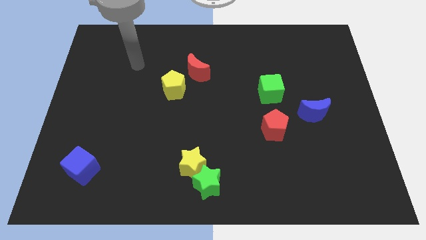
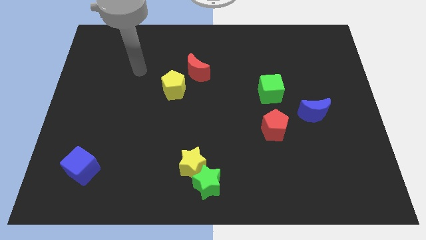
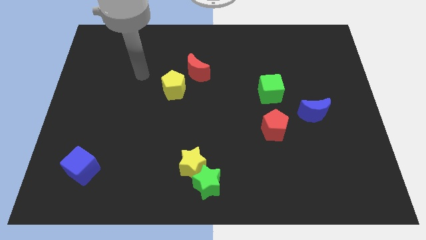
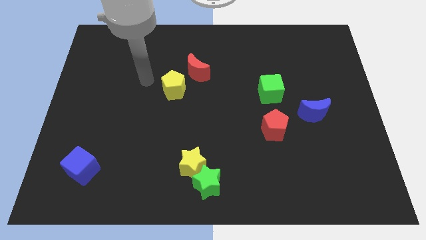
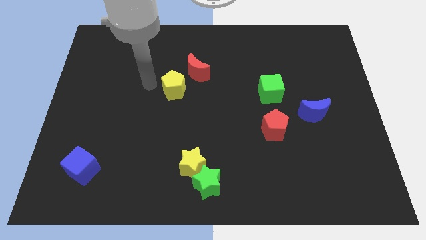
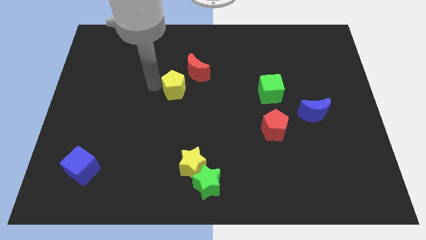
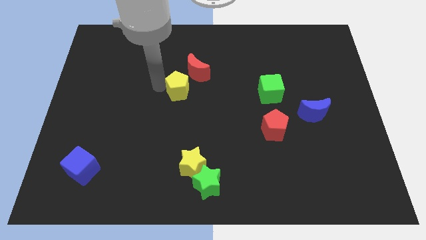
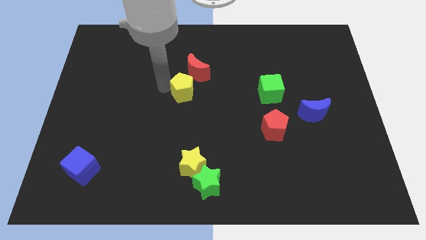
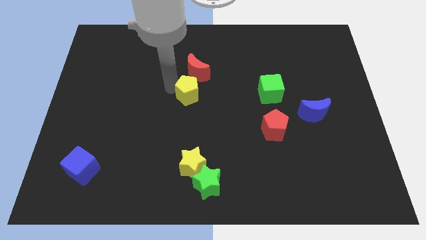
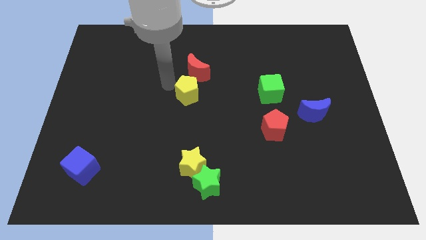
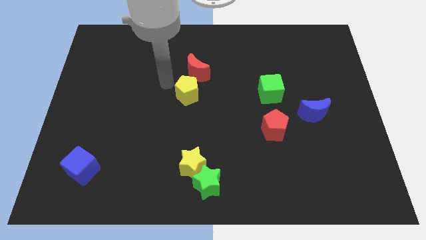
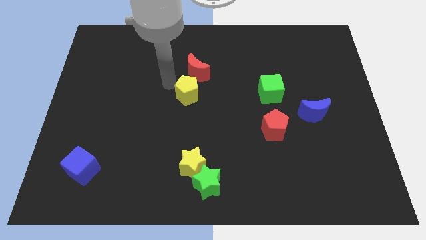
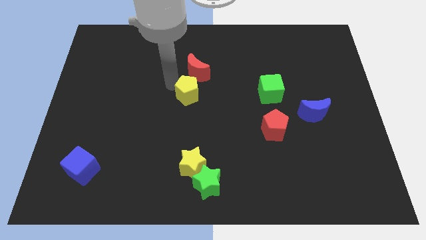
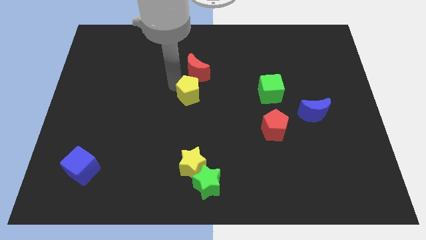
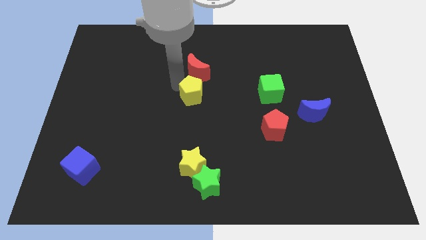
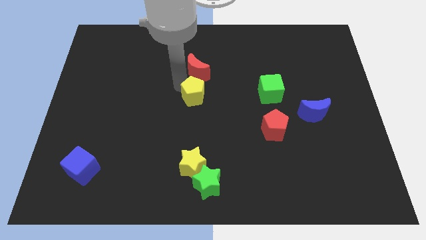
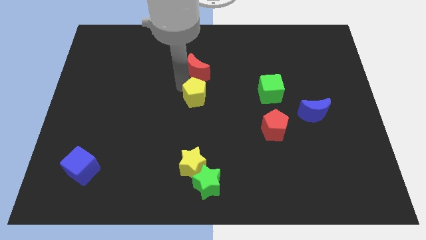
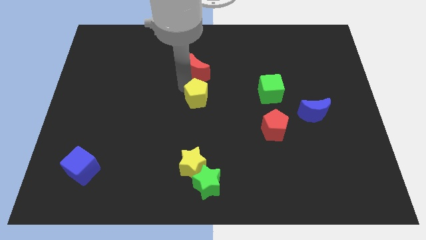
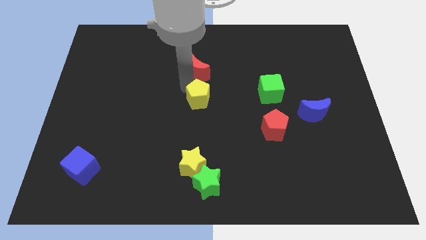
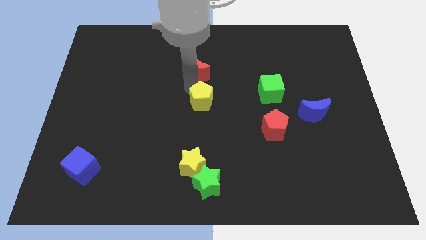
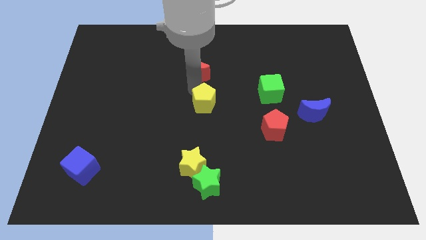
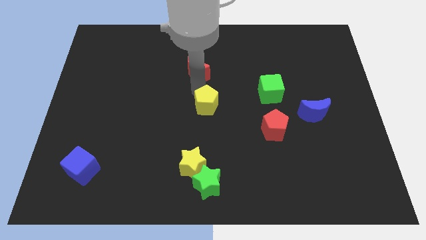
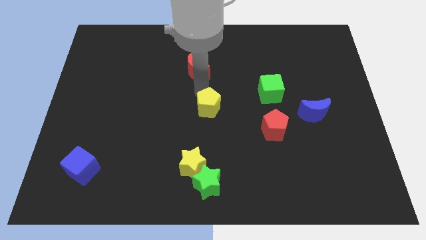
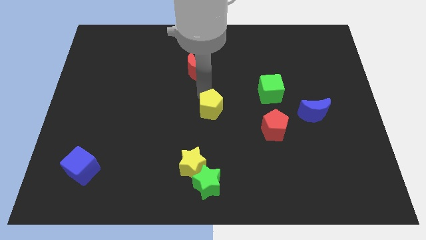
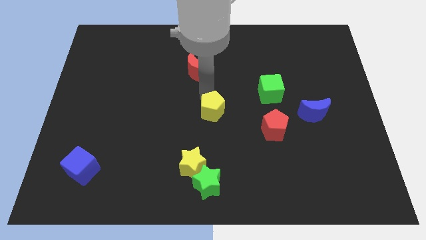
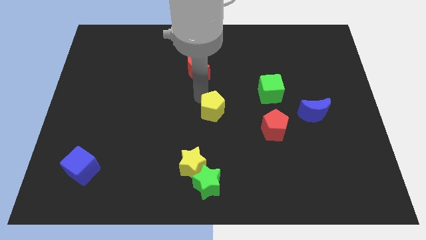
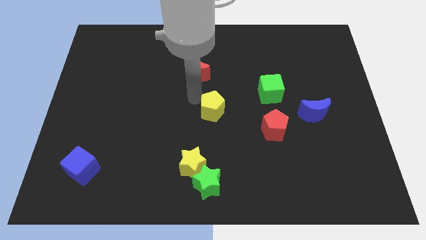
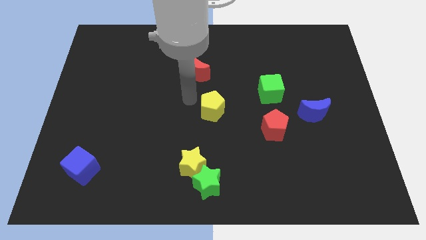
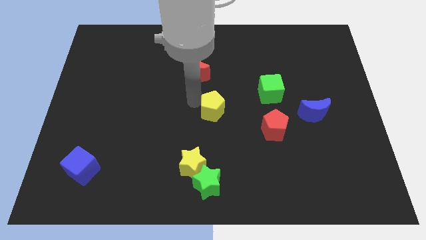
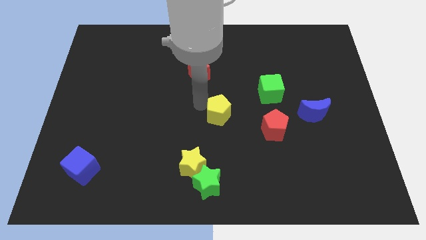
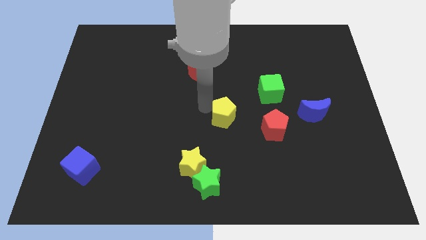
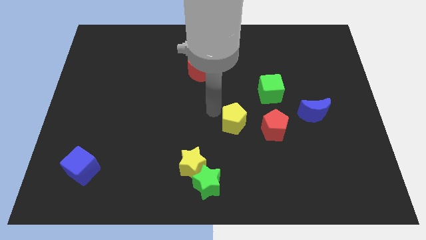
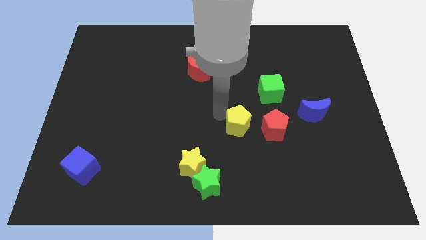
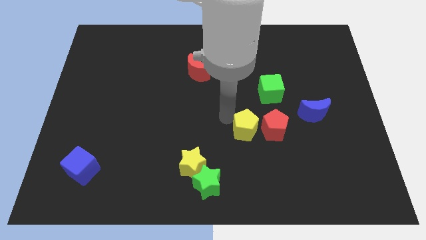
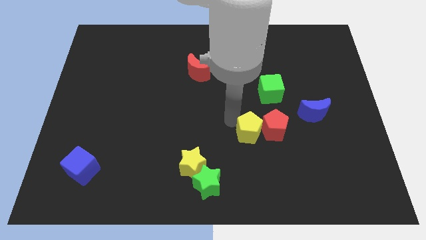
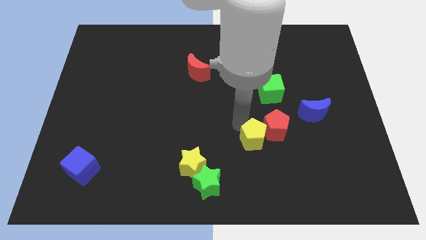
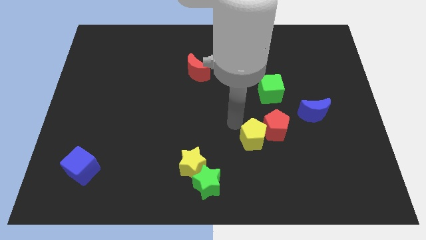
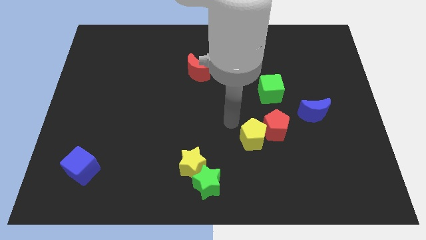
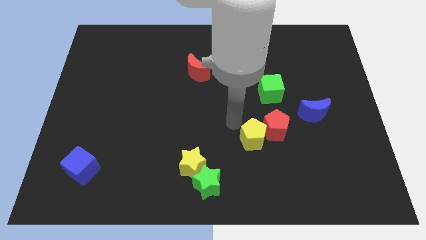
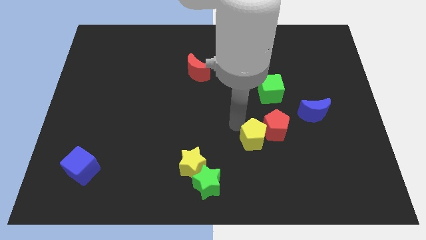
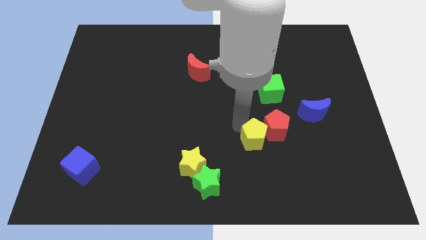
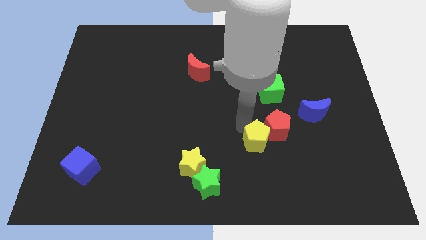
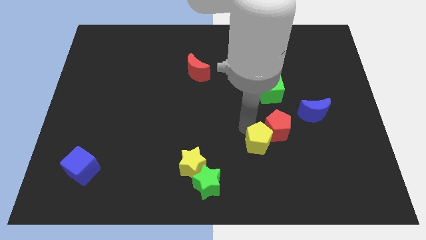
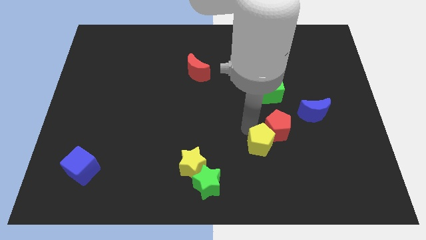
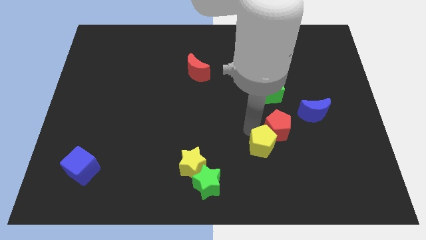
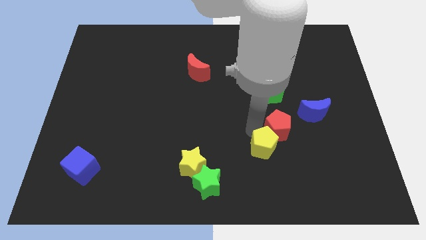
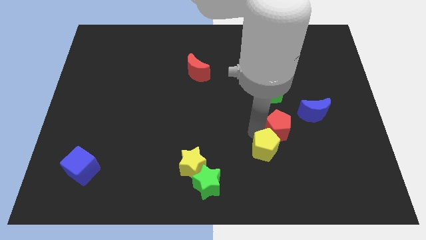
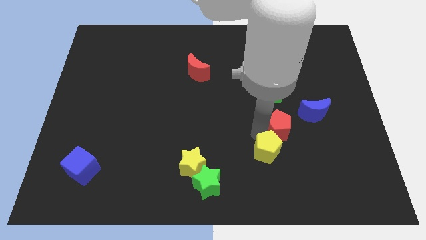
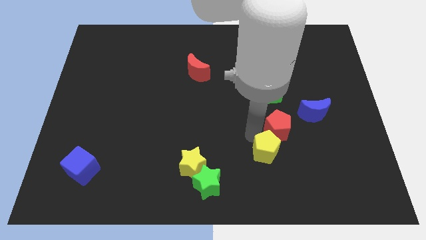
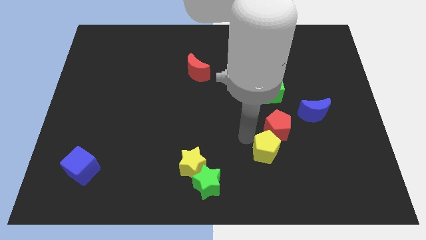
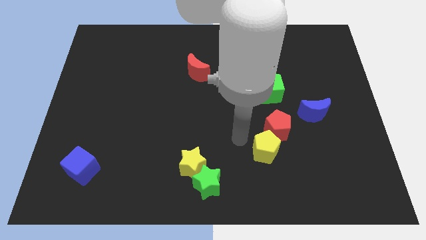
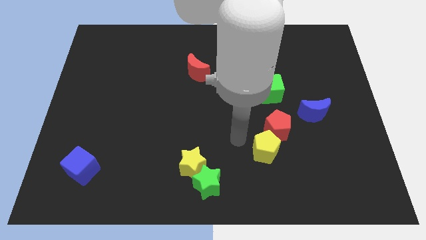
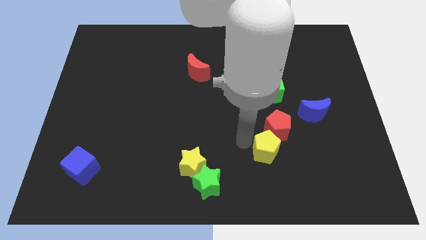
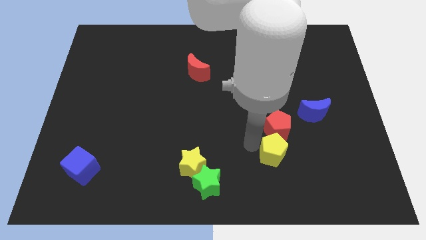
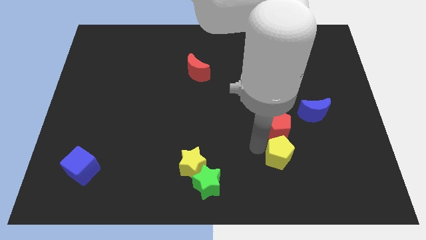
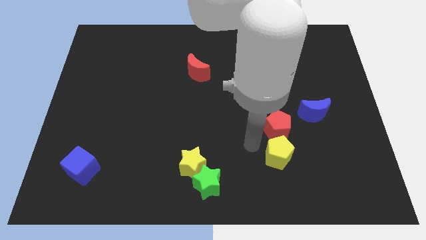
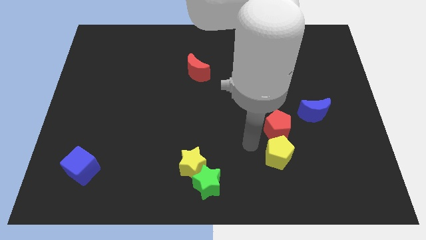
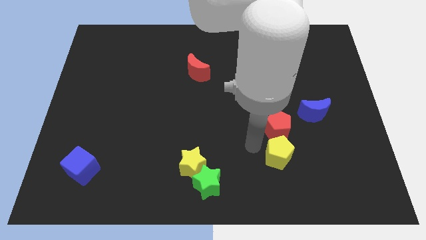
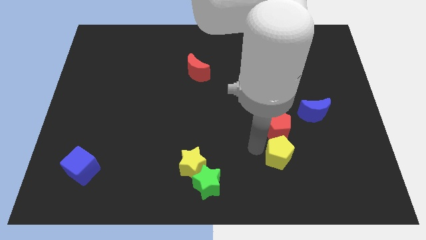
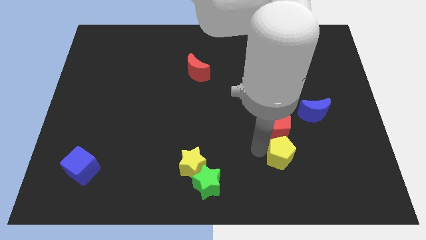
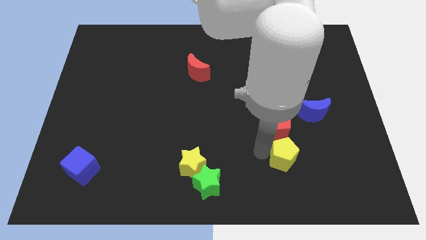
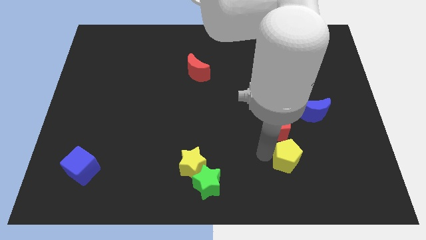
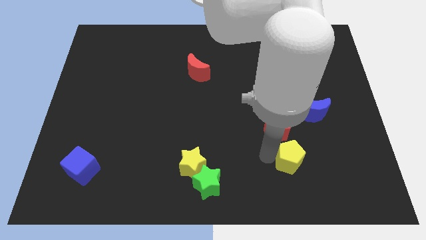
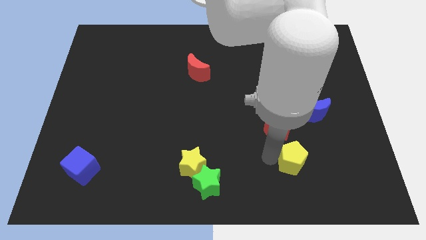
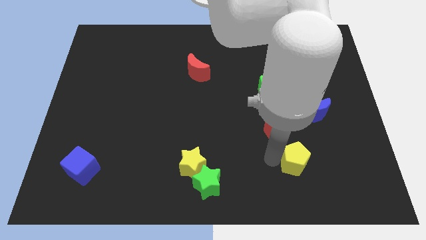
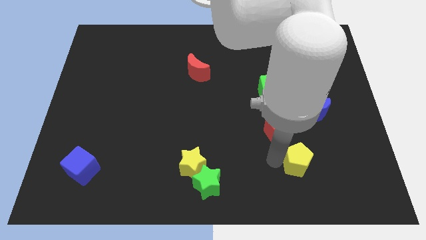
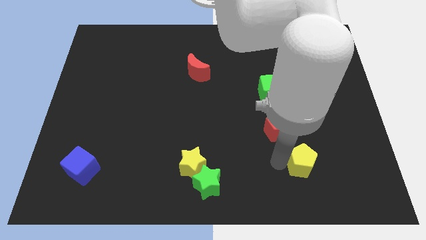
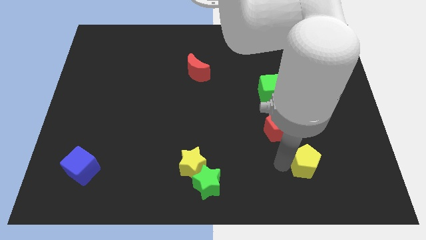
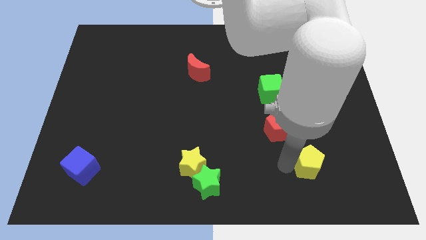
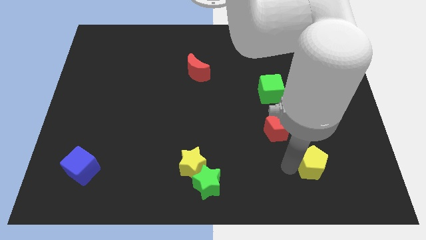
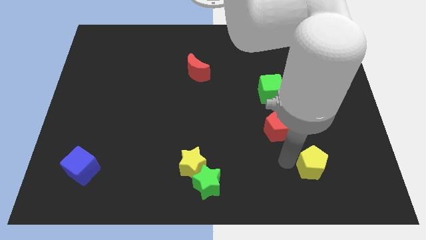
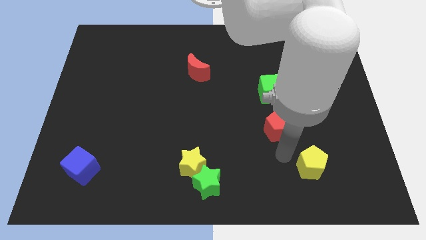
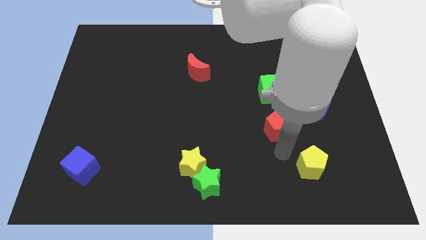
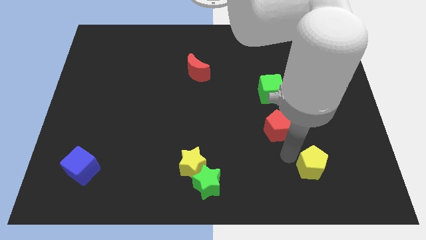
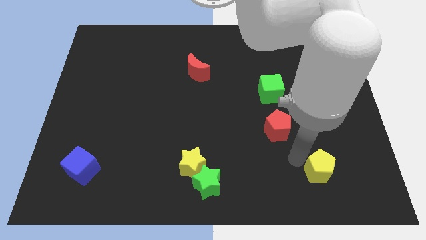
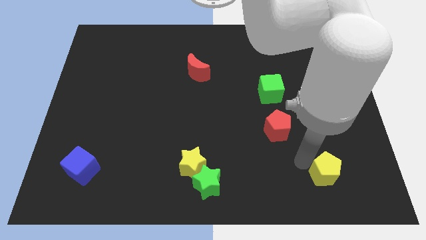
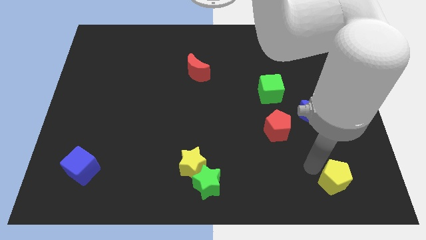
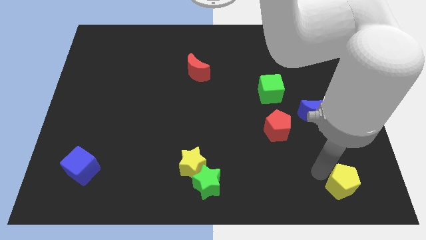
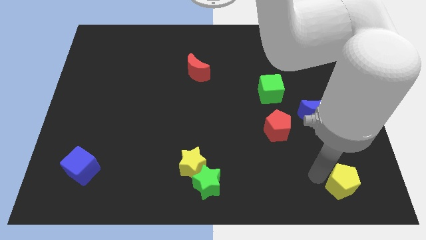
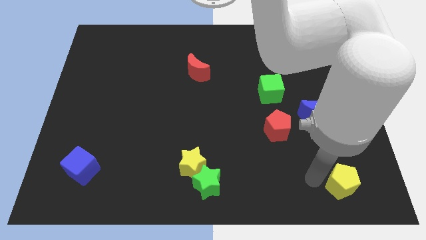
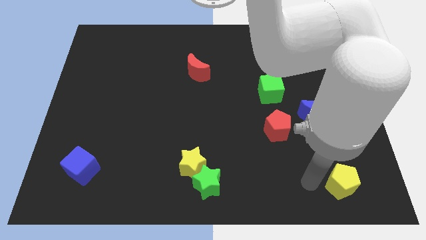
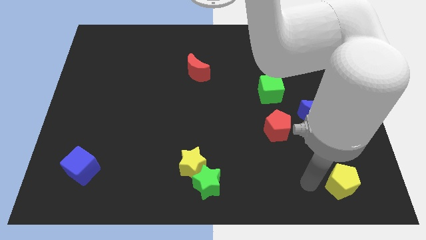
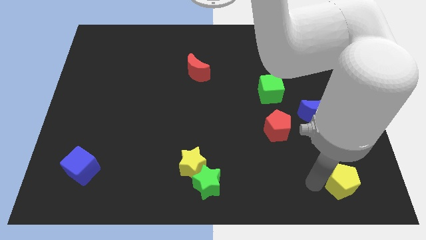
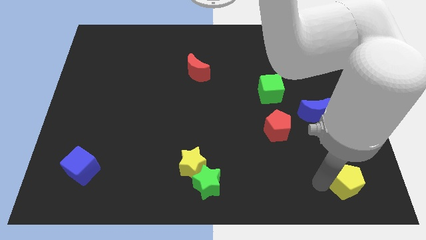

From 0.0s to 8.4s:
put the yellow pentagon to the bottom right of the board
